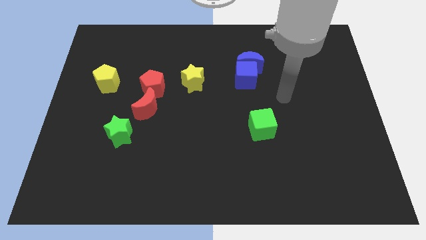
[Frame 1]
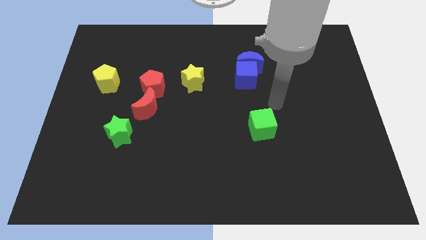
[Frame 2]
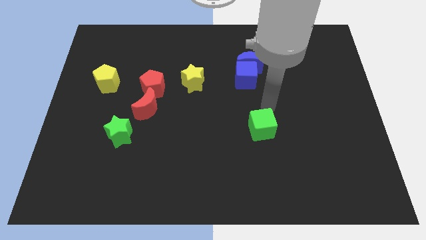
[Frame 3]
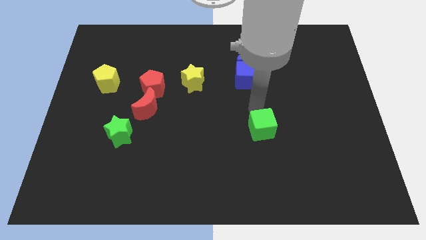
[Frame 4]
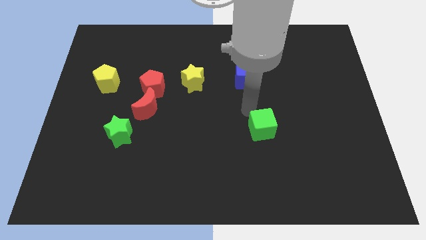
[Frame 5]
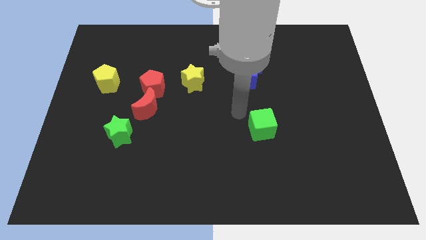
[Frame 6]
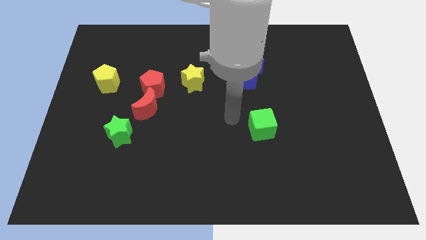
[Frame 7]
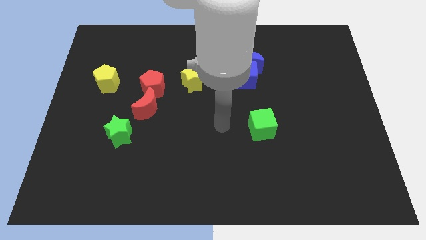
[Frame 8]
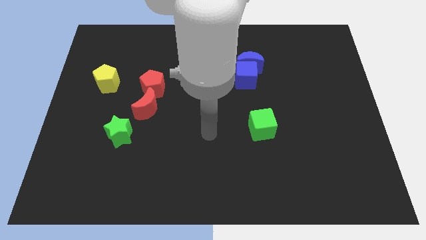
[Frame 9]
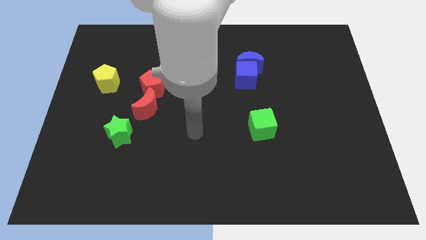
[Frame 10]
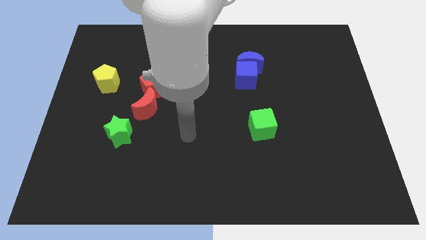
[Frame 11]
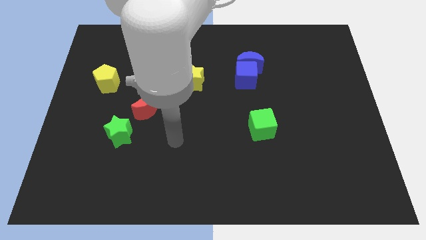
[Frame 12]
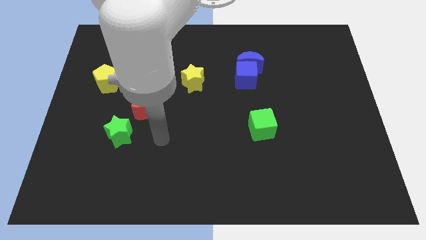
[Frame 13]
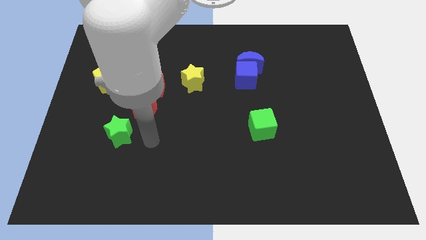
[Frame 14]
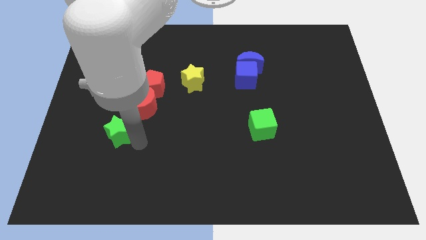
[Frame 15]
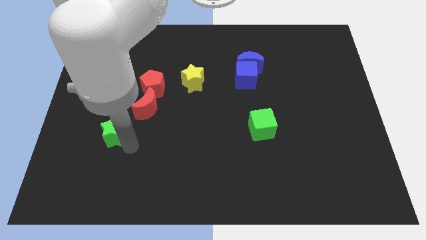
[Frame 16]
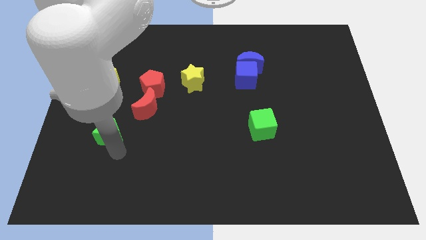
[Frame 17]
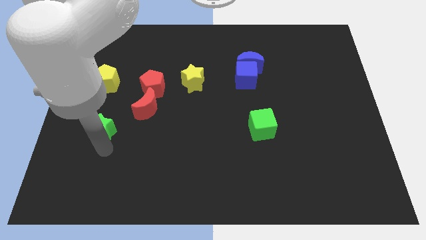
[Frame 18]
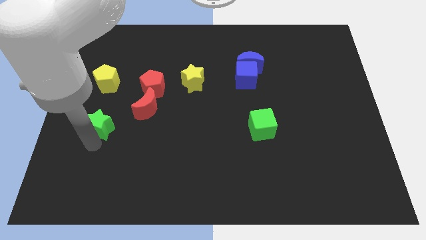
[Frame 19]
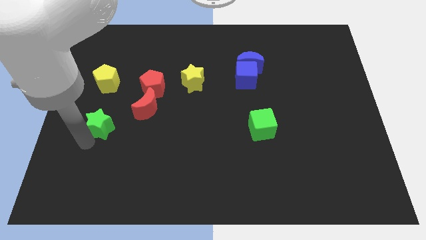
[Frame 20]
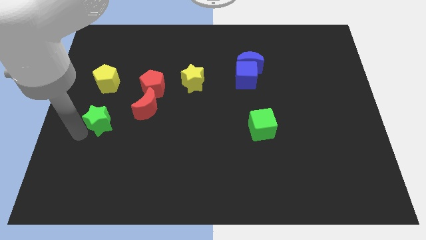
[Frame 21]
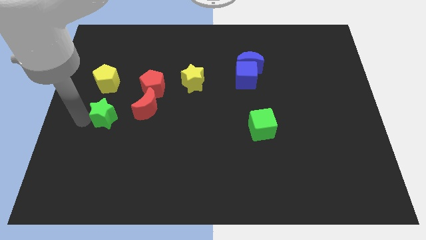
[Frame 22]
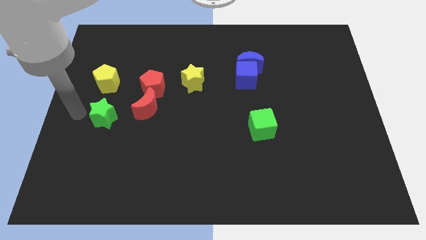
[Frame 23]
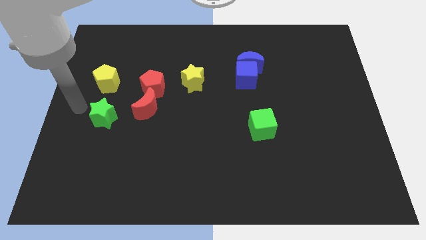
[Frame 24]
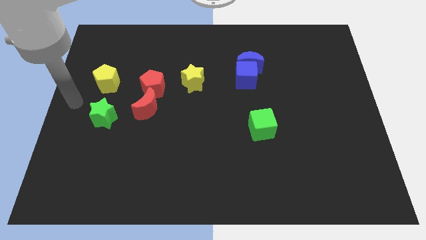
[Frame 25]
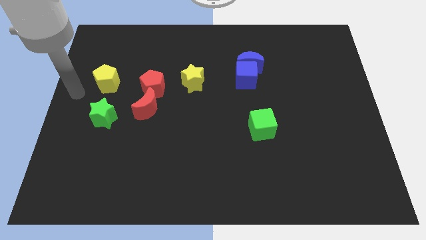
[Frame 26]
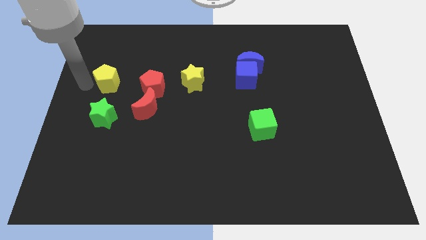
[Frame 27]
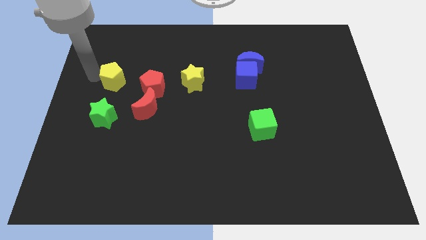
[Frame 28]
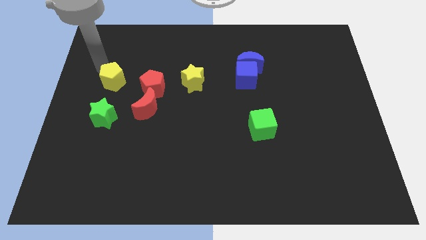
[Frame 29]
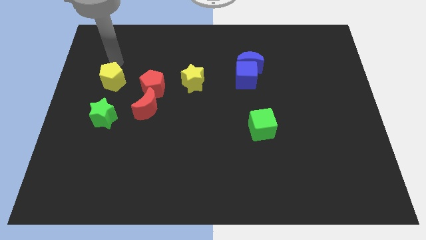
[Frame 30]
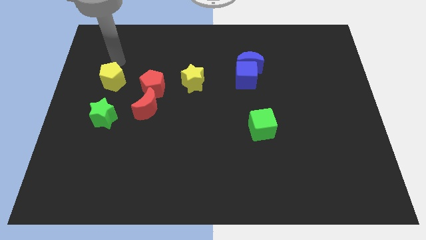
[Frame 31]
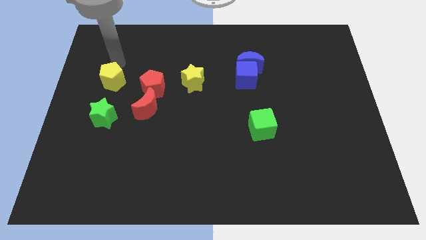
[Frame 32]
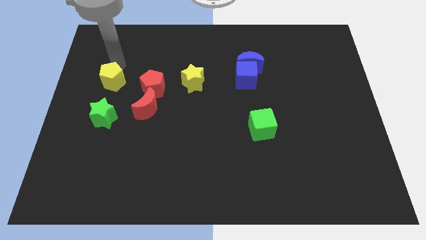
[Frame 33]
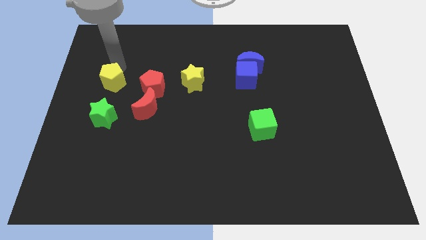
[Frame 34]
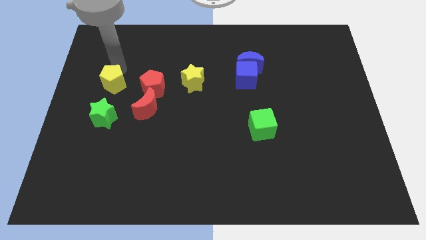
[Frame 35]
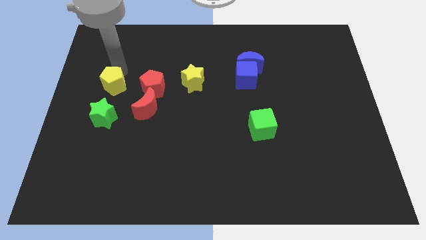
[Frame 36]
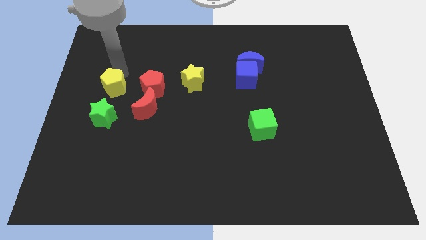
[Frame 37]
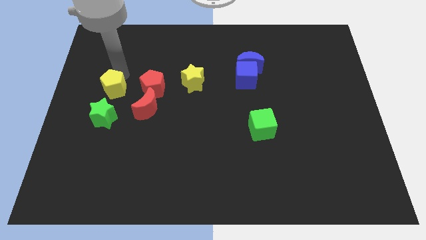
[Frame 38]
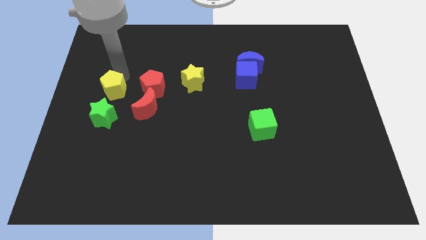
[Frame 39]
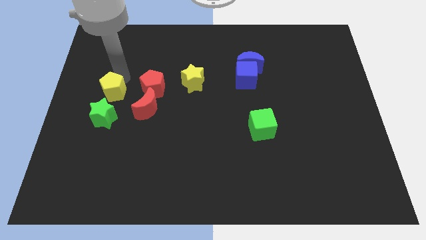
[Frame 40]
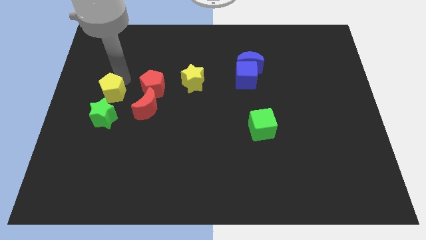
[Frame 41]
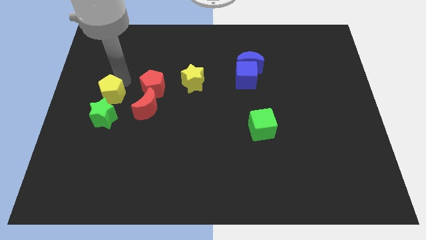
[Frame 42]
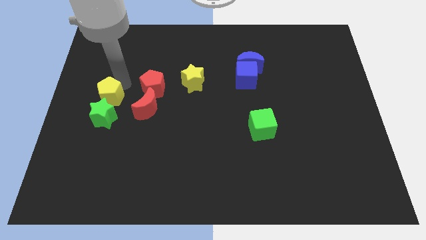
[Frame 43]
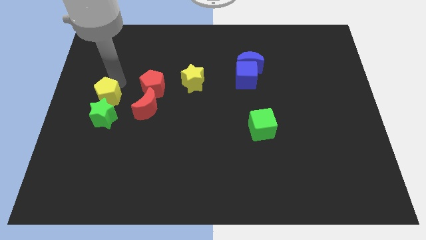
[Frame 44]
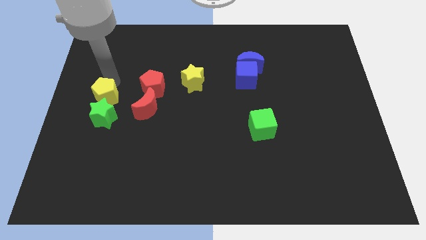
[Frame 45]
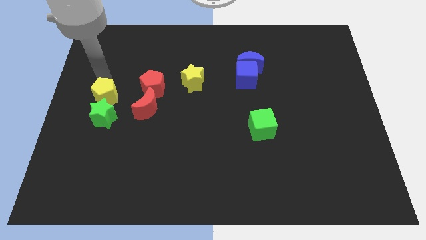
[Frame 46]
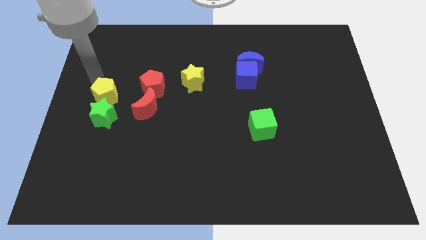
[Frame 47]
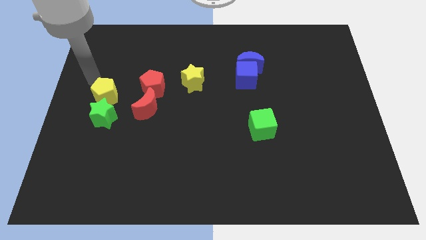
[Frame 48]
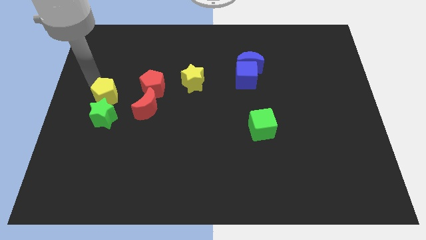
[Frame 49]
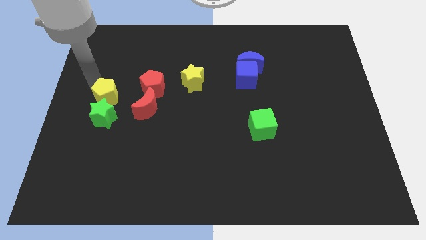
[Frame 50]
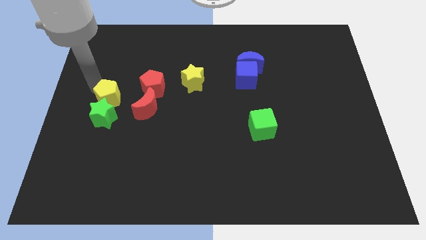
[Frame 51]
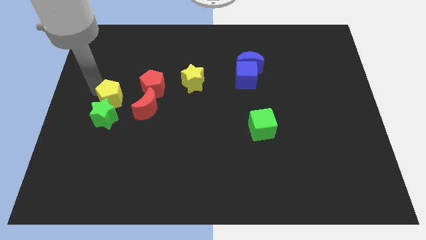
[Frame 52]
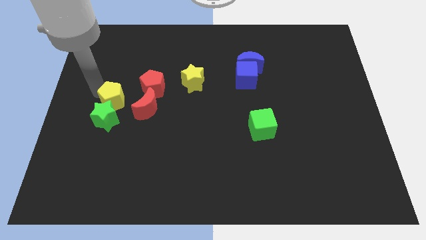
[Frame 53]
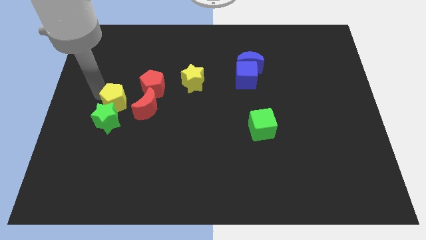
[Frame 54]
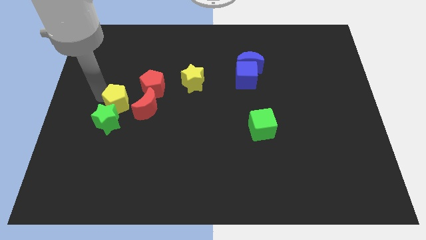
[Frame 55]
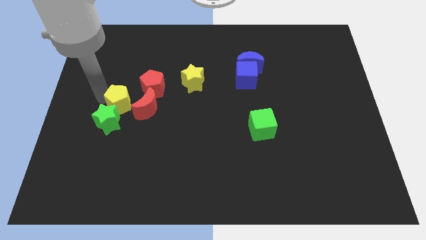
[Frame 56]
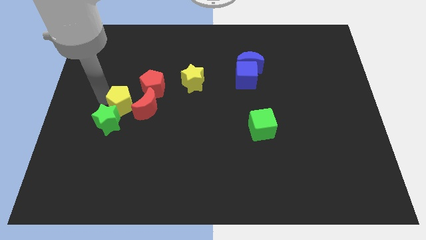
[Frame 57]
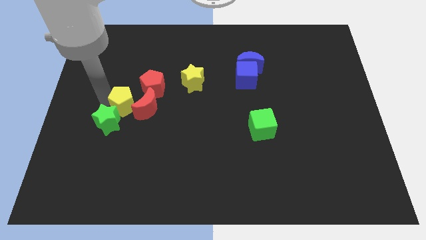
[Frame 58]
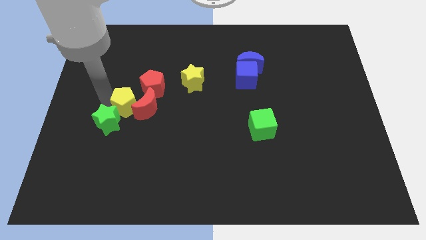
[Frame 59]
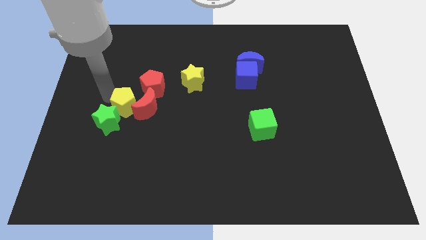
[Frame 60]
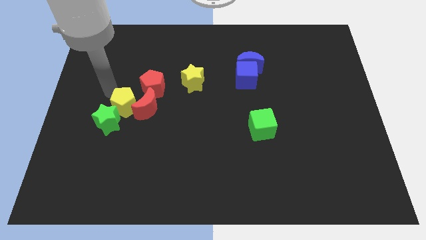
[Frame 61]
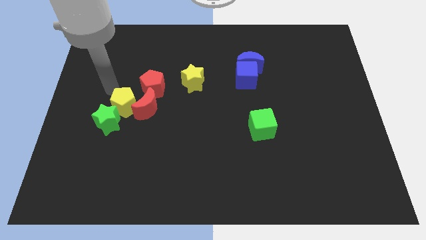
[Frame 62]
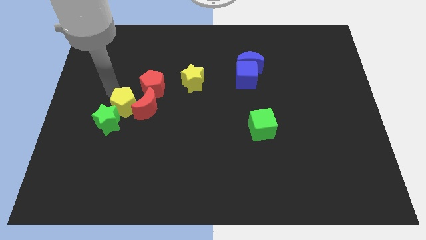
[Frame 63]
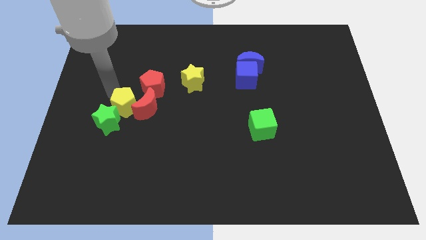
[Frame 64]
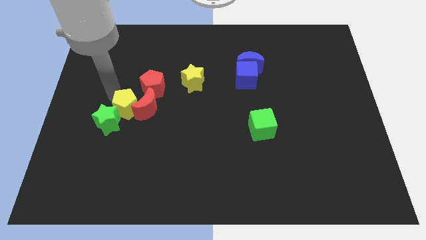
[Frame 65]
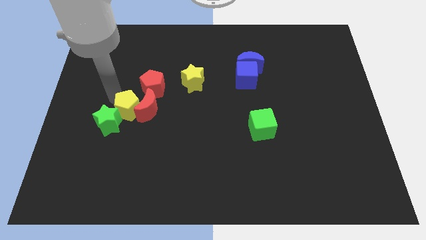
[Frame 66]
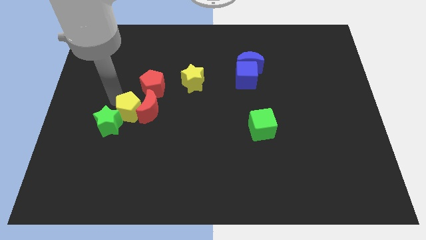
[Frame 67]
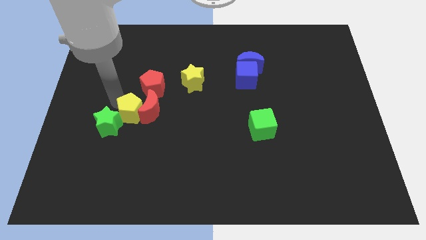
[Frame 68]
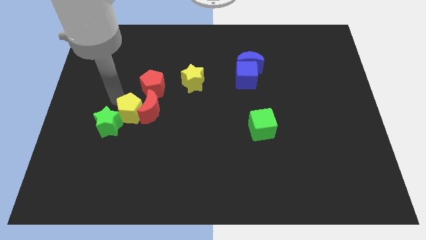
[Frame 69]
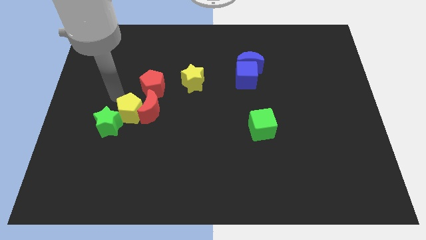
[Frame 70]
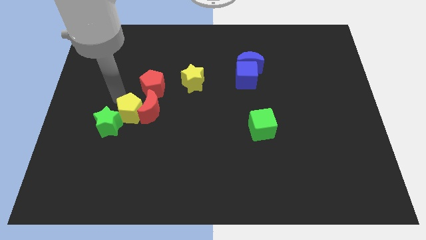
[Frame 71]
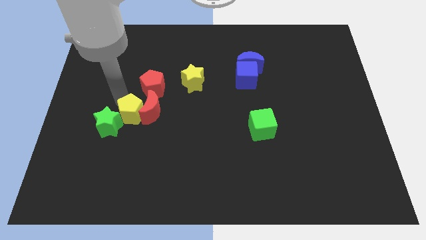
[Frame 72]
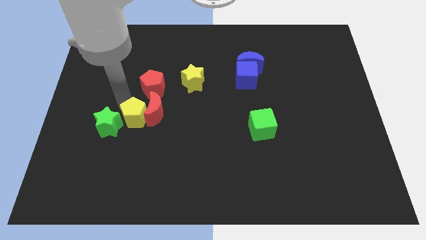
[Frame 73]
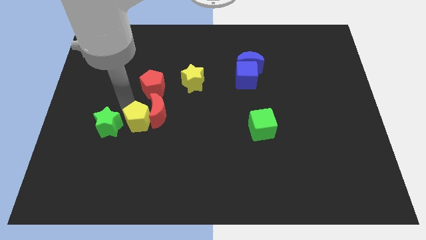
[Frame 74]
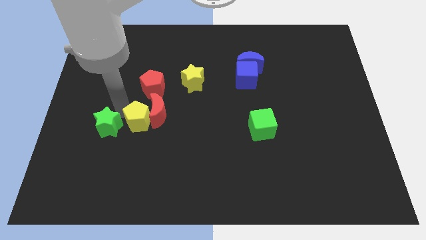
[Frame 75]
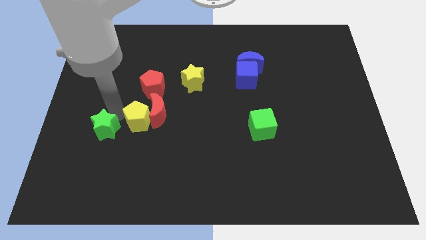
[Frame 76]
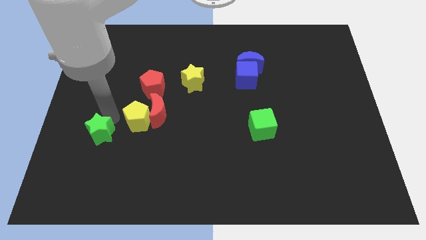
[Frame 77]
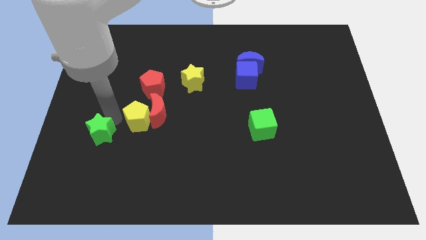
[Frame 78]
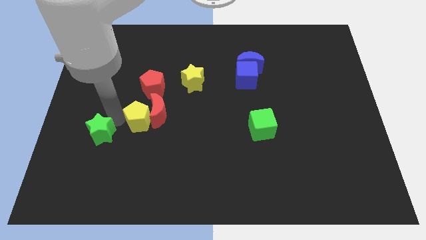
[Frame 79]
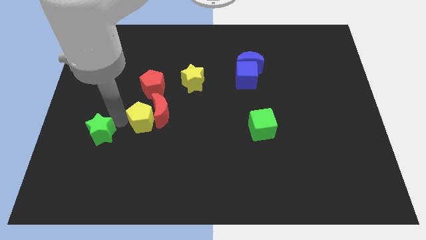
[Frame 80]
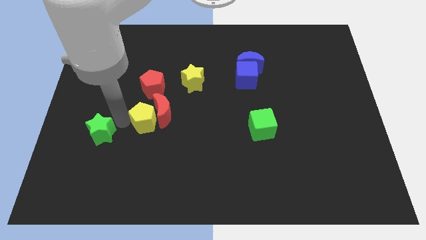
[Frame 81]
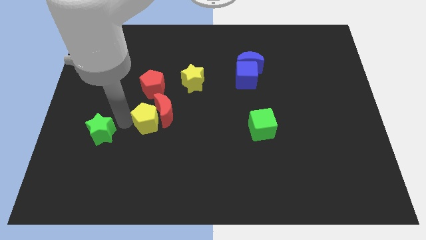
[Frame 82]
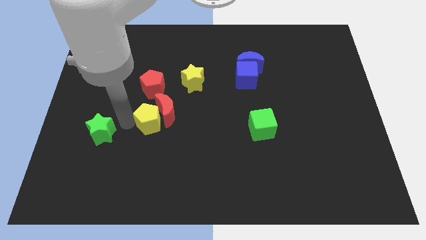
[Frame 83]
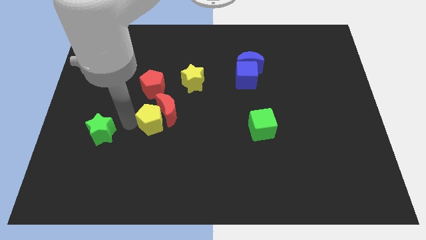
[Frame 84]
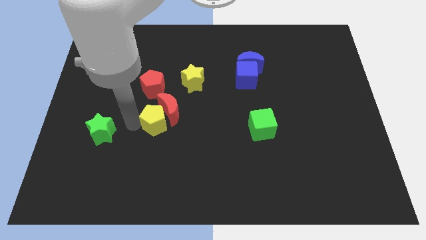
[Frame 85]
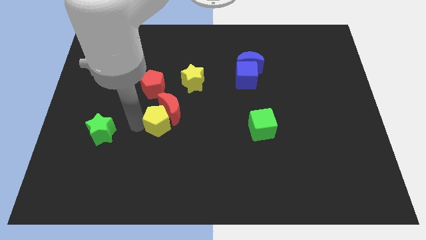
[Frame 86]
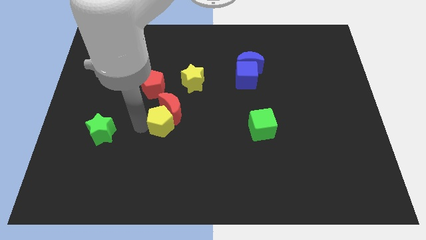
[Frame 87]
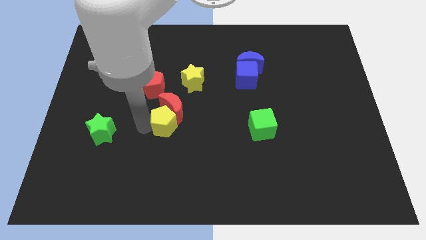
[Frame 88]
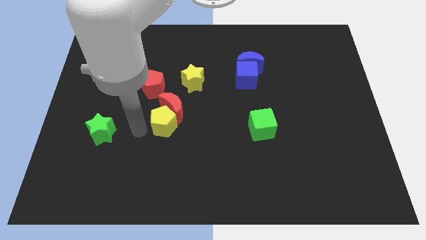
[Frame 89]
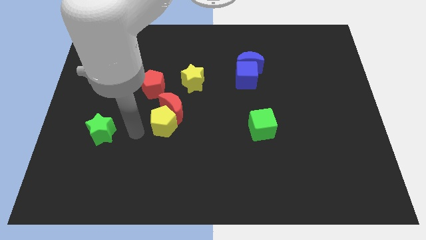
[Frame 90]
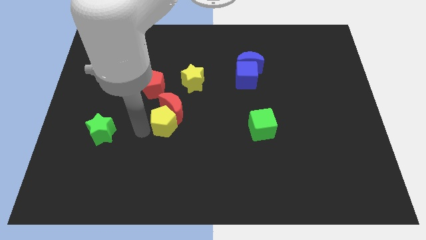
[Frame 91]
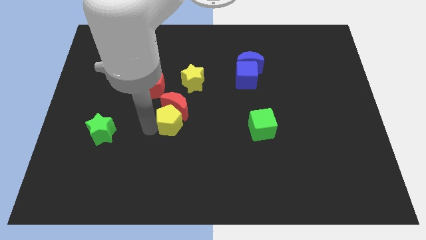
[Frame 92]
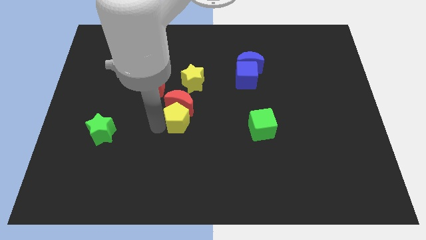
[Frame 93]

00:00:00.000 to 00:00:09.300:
put the yellow pentagon below the yellow star
